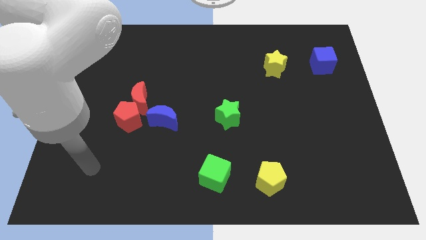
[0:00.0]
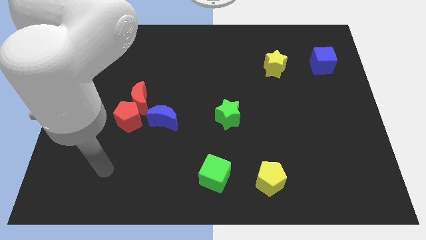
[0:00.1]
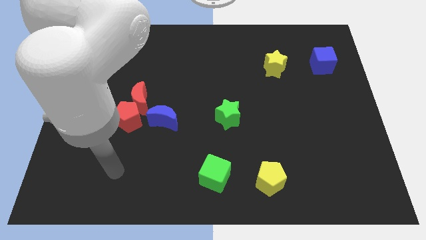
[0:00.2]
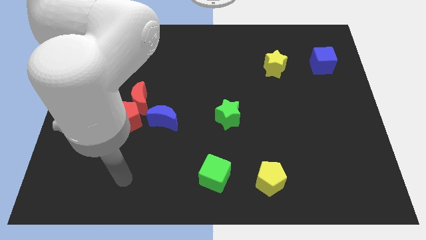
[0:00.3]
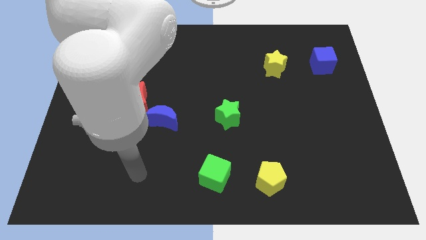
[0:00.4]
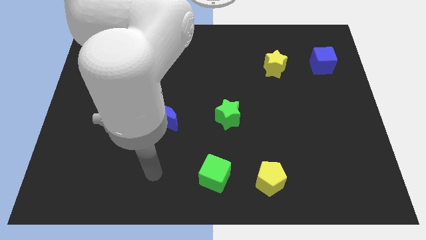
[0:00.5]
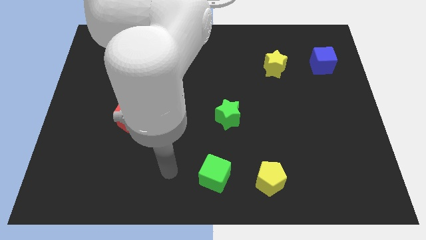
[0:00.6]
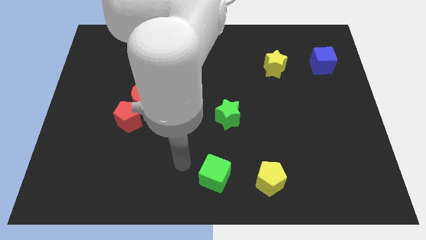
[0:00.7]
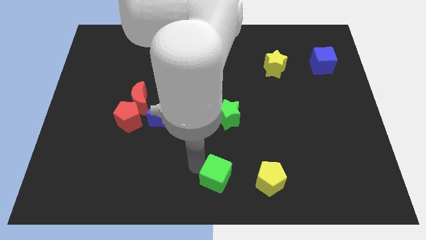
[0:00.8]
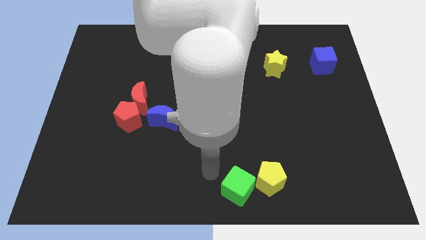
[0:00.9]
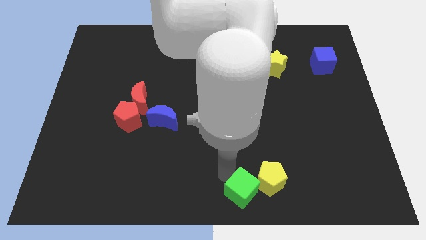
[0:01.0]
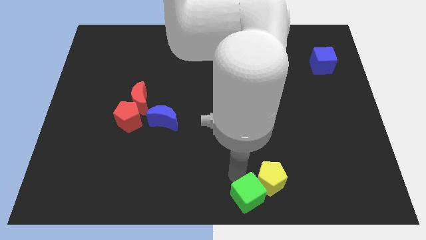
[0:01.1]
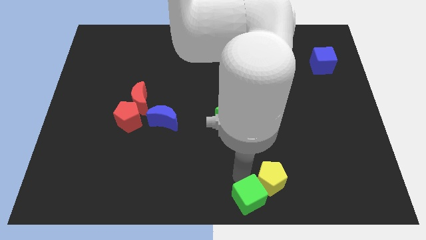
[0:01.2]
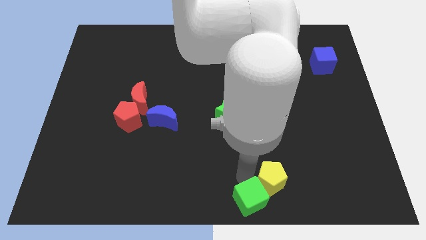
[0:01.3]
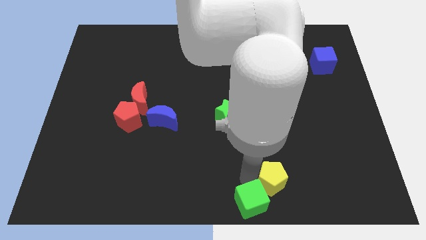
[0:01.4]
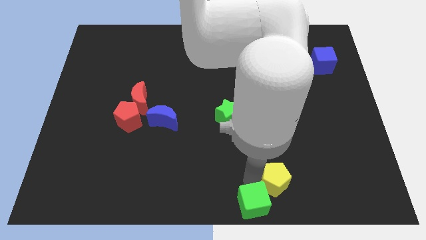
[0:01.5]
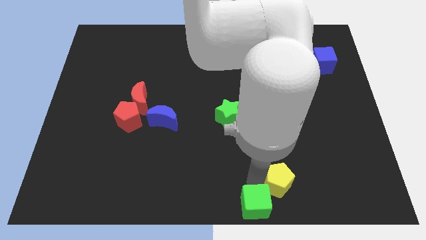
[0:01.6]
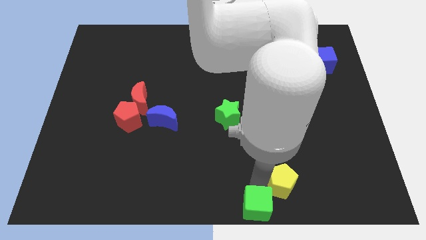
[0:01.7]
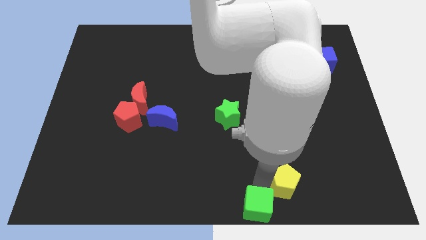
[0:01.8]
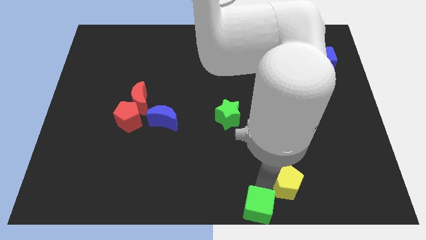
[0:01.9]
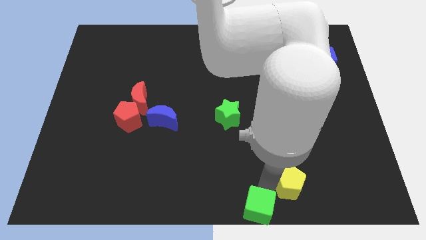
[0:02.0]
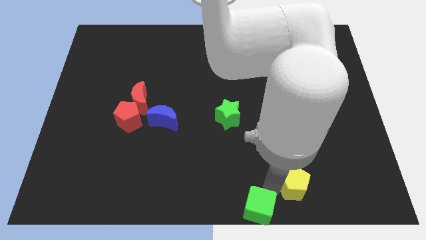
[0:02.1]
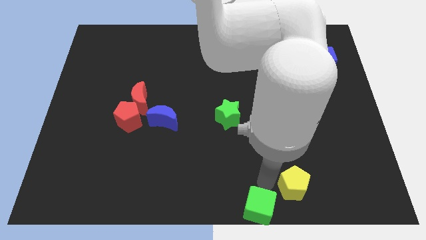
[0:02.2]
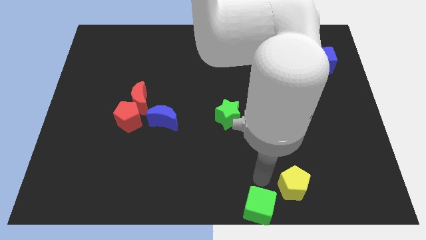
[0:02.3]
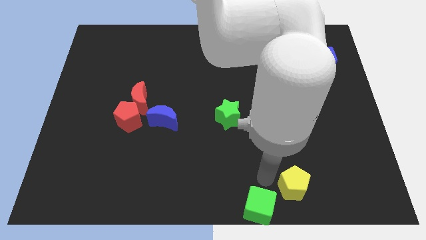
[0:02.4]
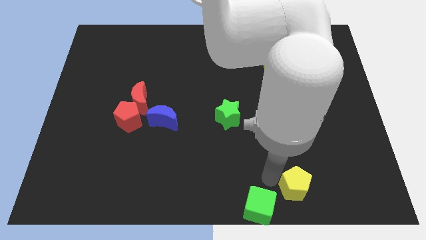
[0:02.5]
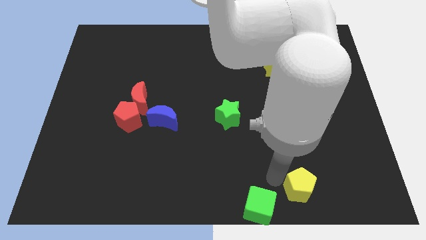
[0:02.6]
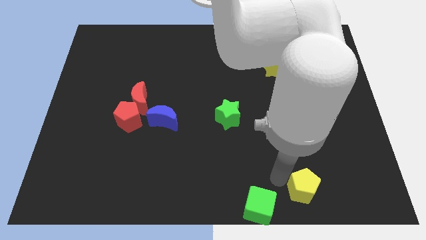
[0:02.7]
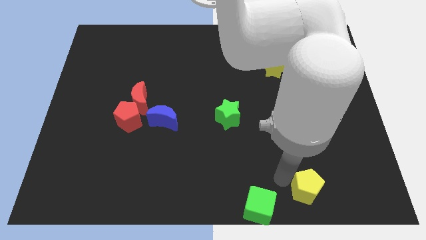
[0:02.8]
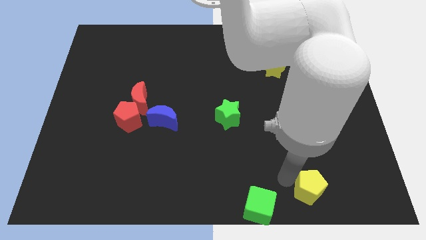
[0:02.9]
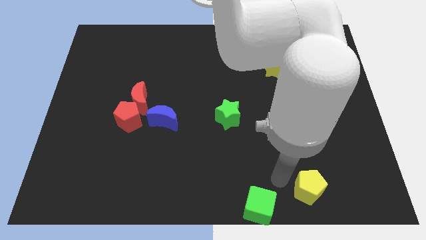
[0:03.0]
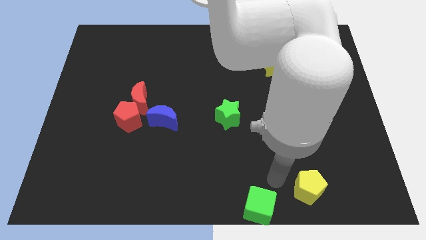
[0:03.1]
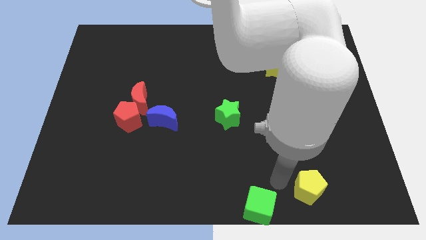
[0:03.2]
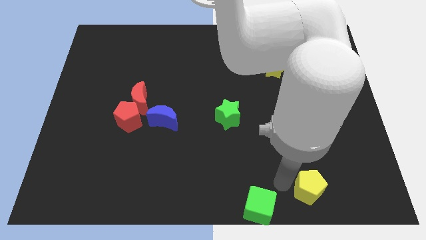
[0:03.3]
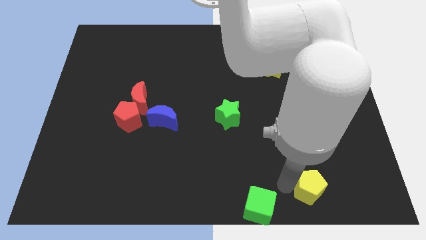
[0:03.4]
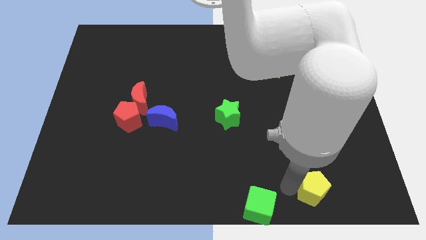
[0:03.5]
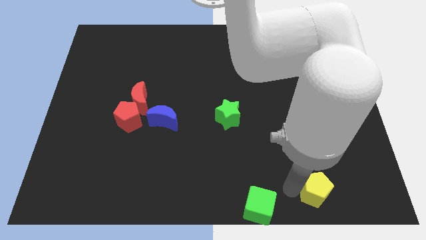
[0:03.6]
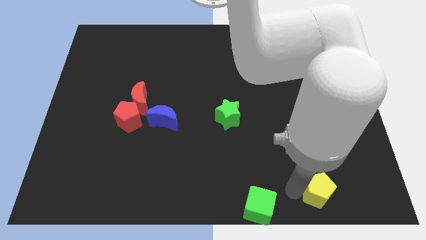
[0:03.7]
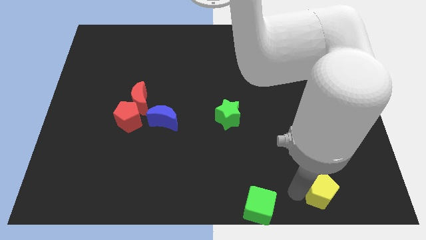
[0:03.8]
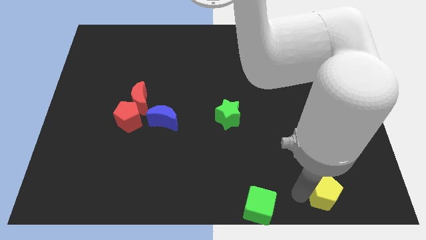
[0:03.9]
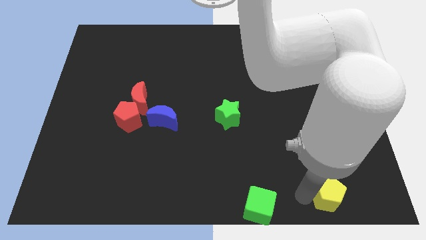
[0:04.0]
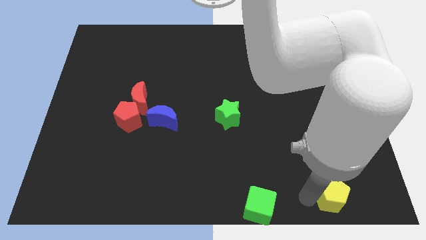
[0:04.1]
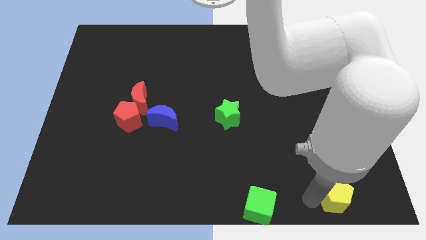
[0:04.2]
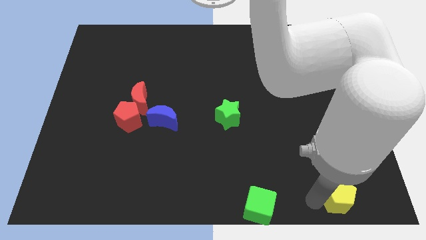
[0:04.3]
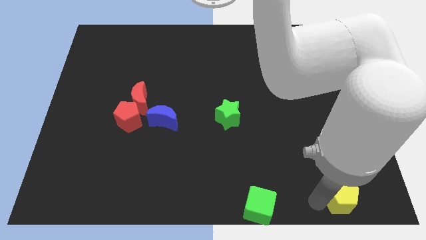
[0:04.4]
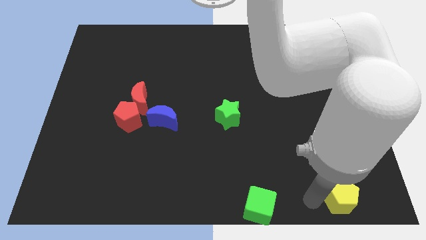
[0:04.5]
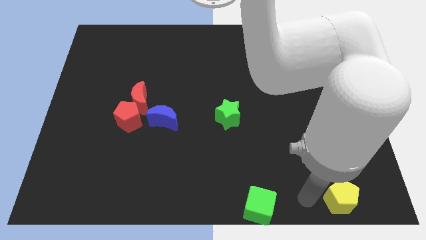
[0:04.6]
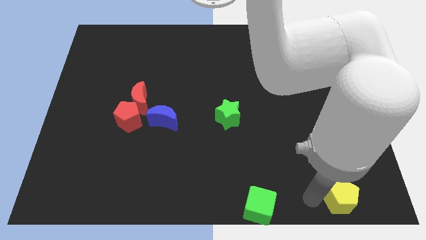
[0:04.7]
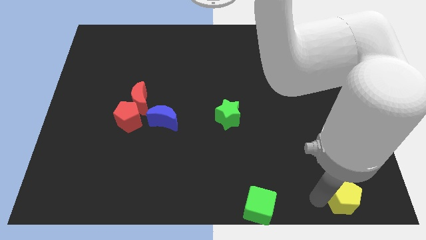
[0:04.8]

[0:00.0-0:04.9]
push the yellow pentagon to the lower right corner

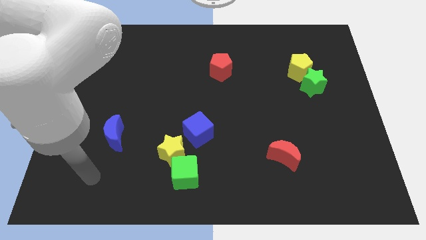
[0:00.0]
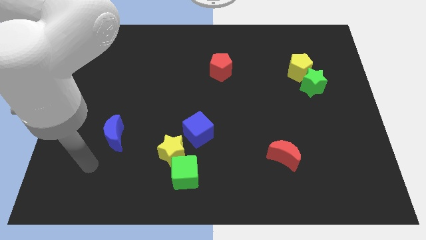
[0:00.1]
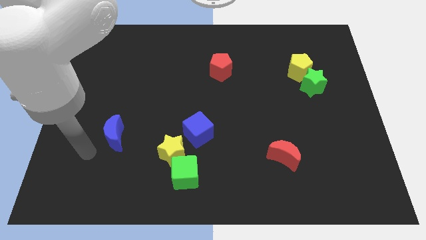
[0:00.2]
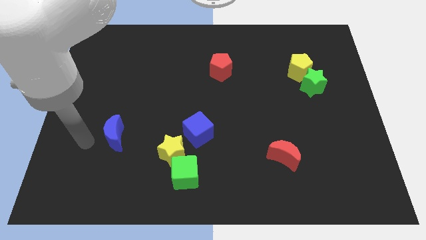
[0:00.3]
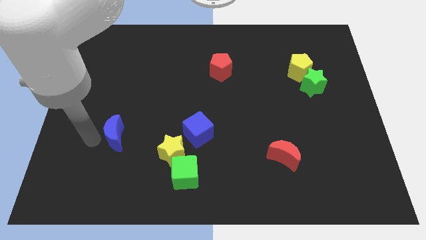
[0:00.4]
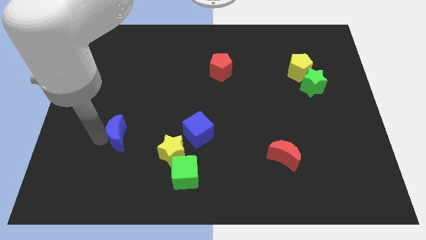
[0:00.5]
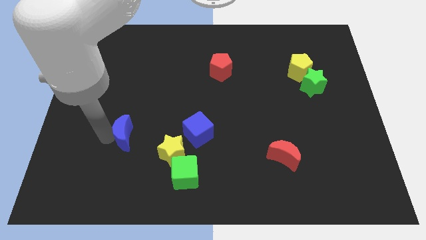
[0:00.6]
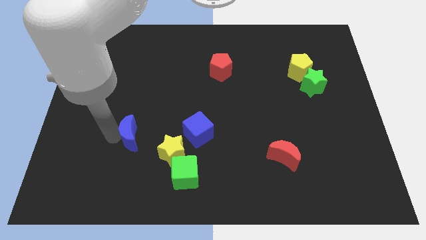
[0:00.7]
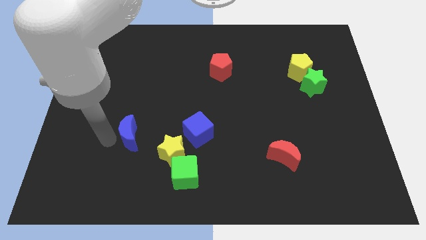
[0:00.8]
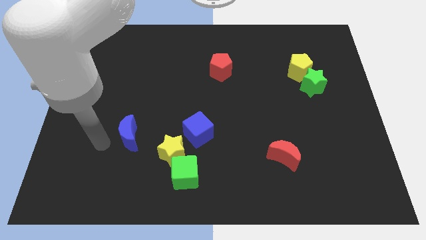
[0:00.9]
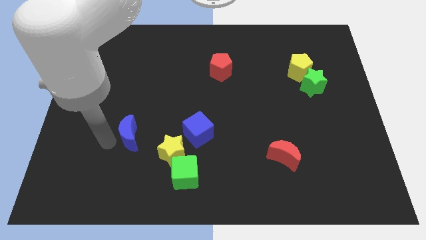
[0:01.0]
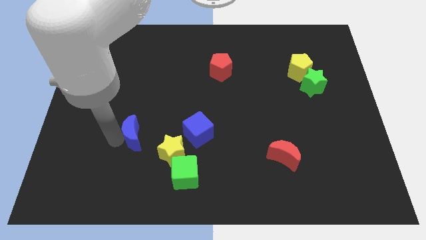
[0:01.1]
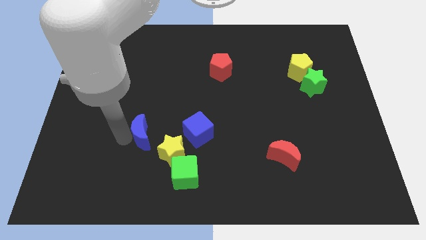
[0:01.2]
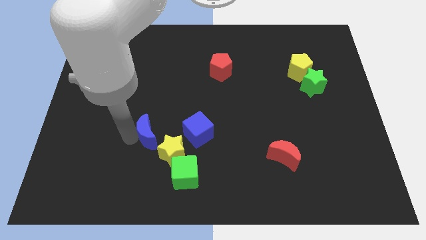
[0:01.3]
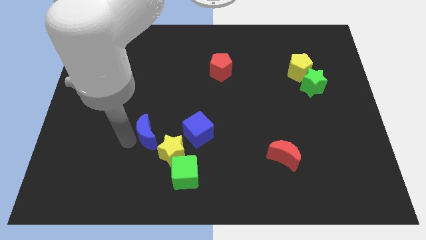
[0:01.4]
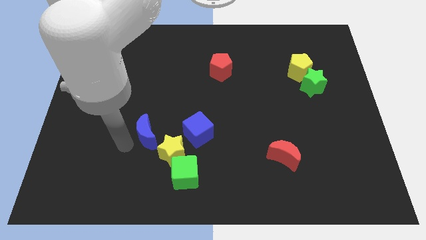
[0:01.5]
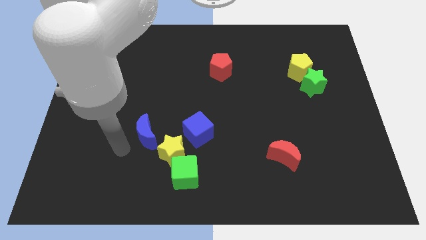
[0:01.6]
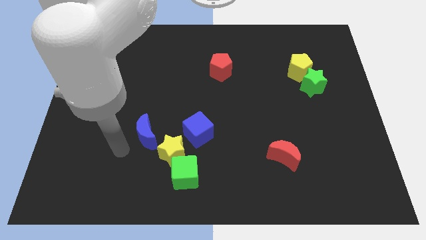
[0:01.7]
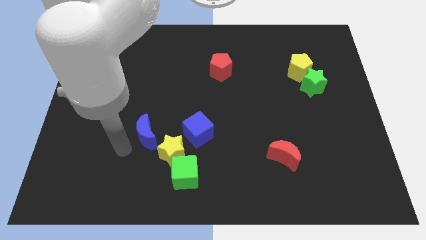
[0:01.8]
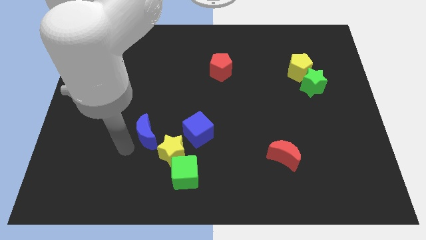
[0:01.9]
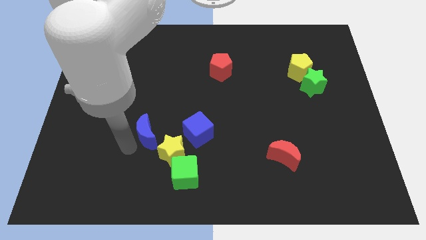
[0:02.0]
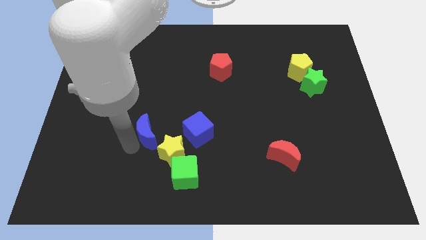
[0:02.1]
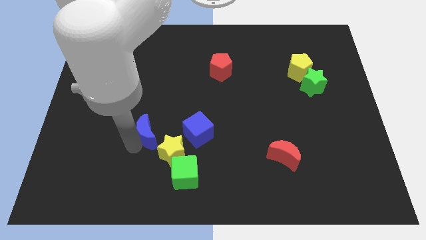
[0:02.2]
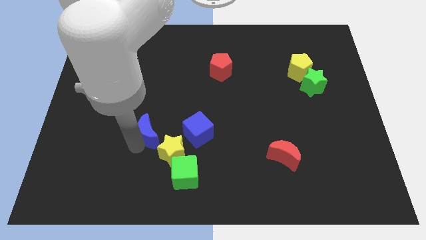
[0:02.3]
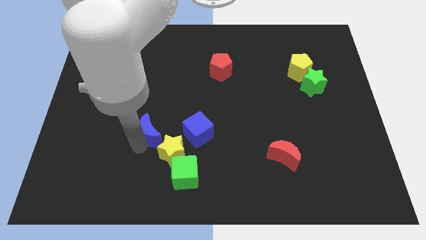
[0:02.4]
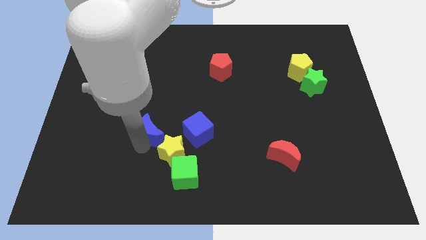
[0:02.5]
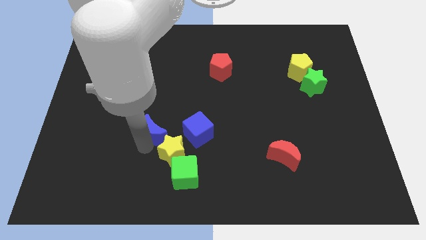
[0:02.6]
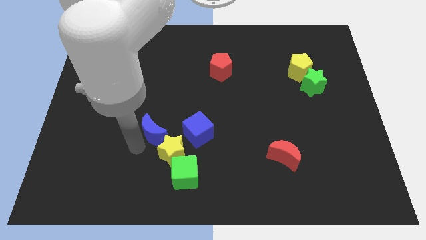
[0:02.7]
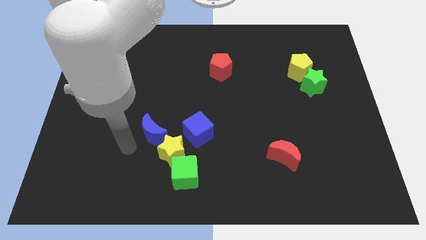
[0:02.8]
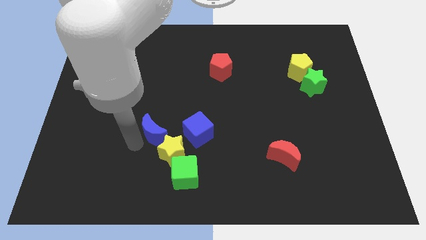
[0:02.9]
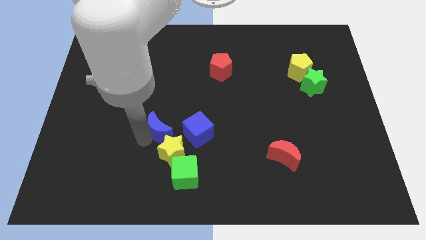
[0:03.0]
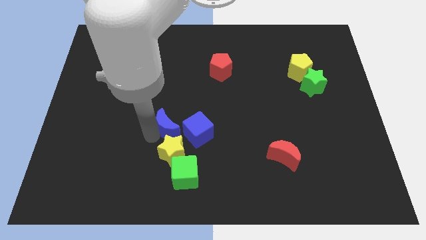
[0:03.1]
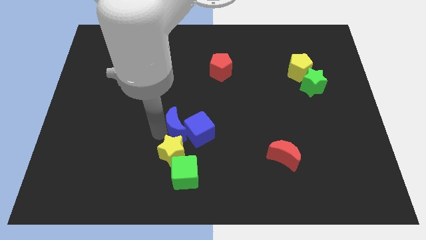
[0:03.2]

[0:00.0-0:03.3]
put the blue moon to the center of the board
